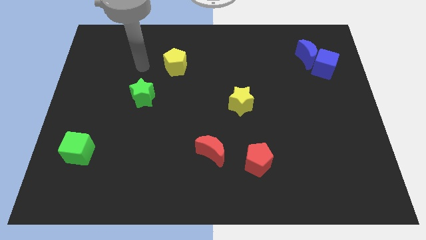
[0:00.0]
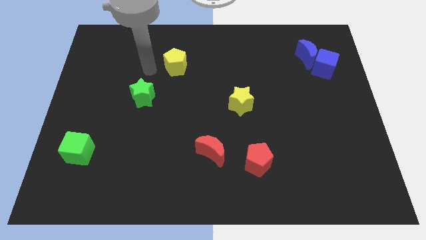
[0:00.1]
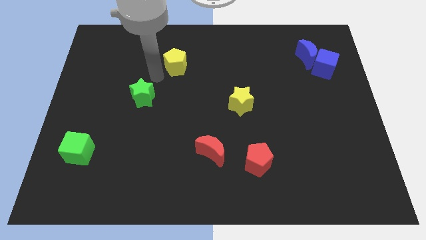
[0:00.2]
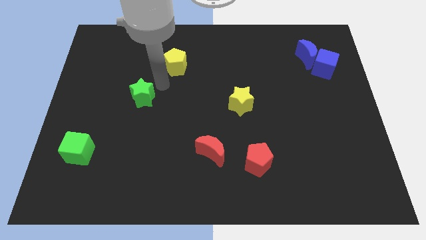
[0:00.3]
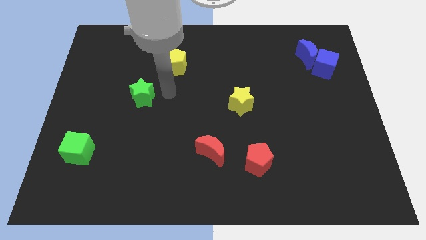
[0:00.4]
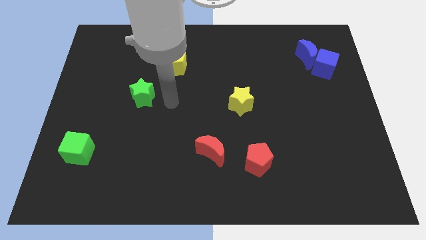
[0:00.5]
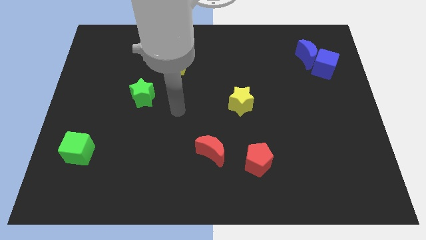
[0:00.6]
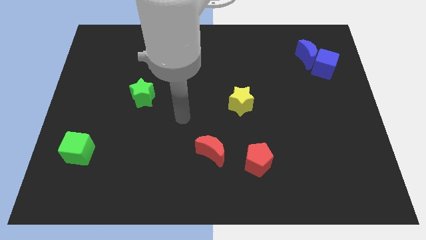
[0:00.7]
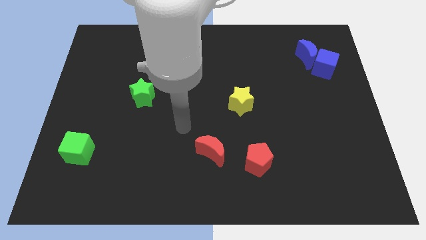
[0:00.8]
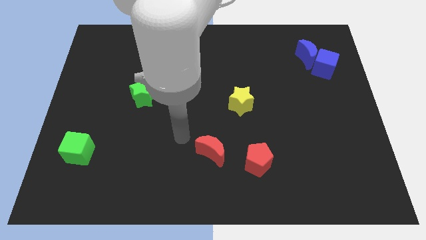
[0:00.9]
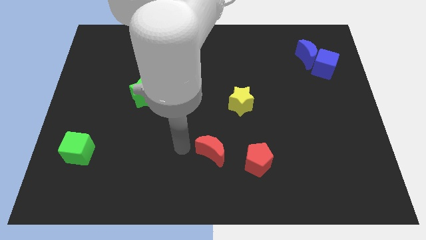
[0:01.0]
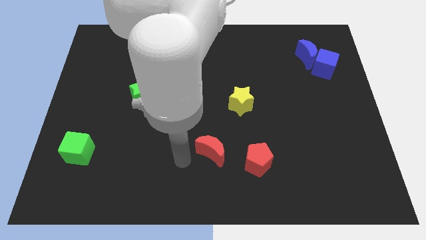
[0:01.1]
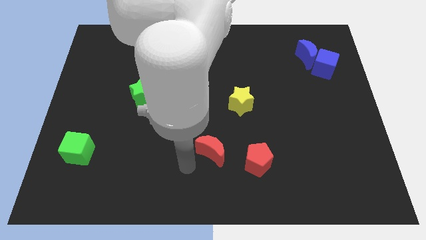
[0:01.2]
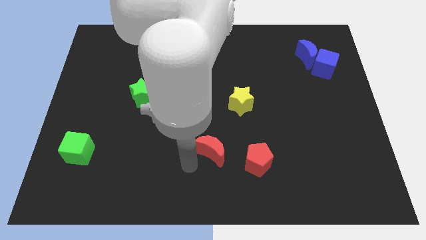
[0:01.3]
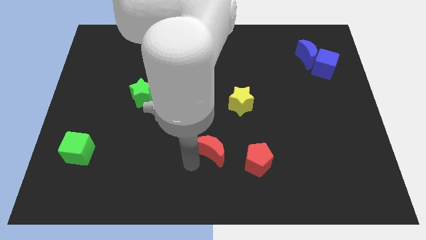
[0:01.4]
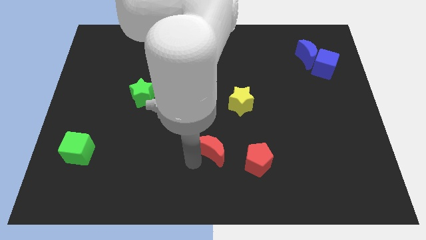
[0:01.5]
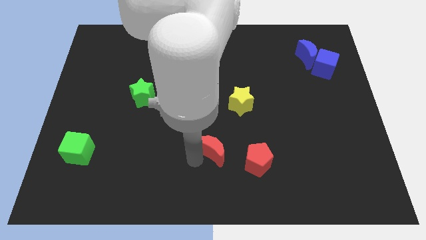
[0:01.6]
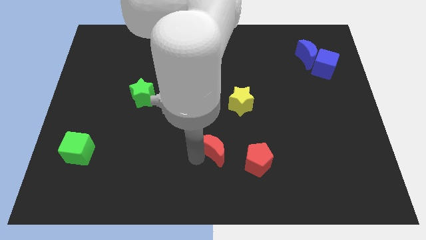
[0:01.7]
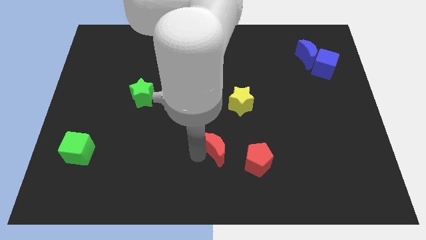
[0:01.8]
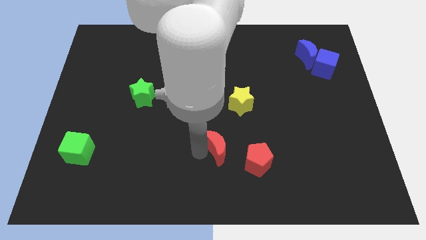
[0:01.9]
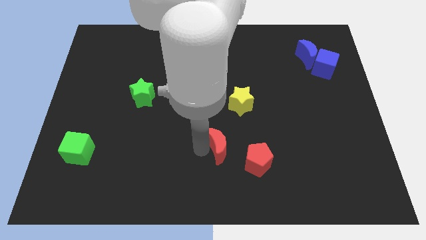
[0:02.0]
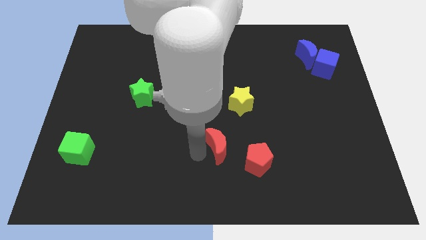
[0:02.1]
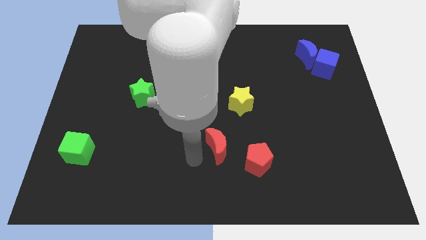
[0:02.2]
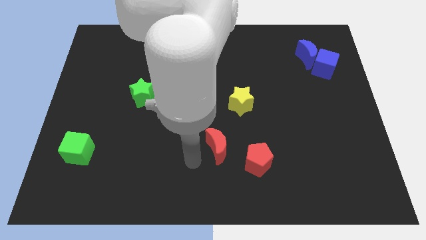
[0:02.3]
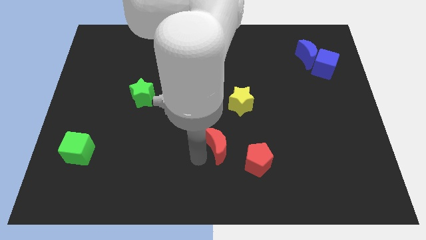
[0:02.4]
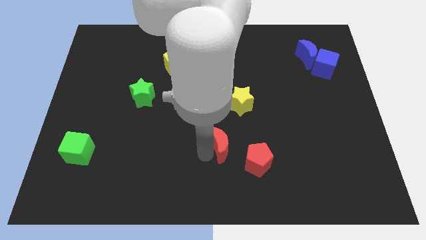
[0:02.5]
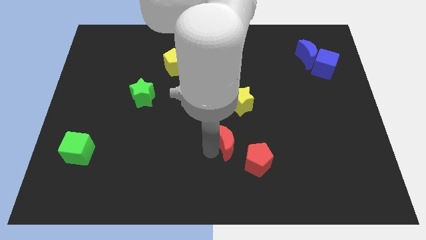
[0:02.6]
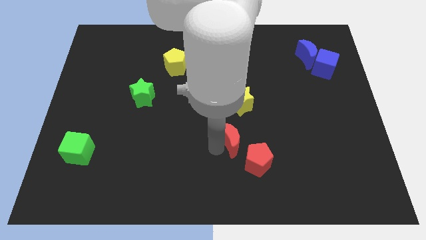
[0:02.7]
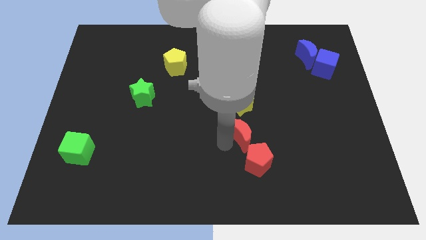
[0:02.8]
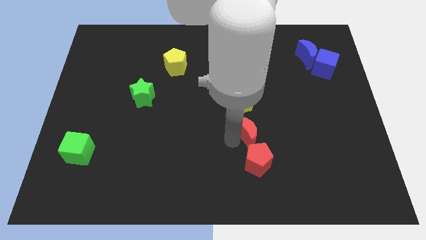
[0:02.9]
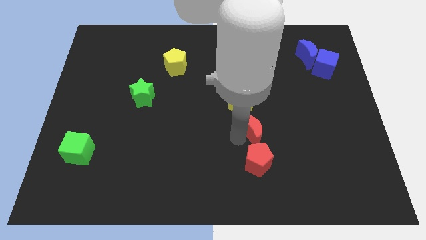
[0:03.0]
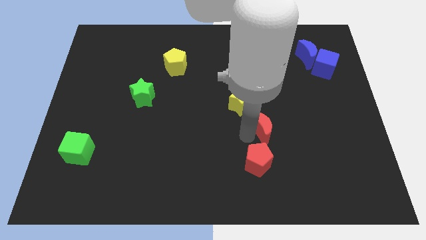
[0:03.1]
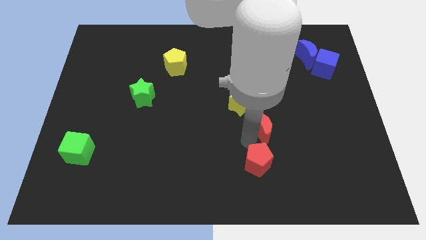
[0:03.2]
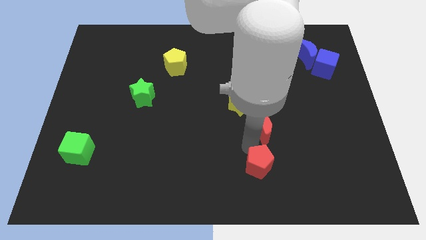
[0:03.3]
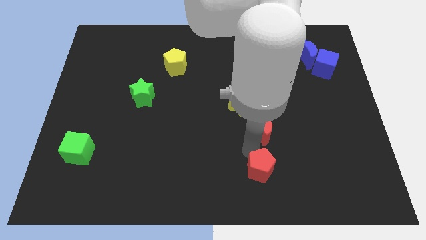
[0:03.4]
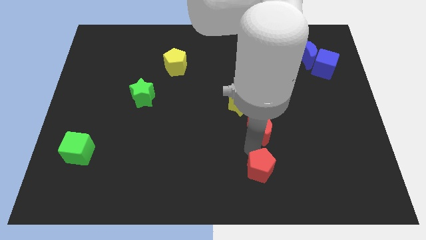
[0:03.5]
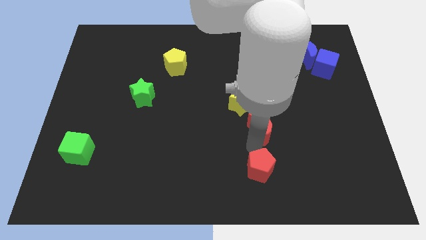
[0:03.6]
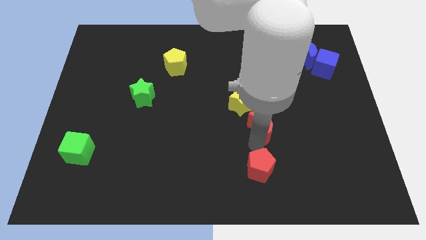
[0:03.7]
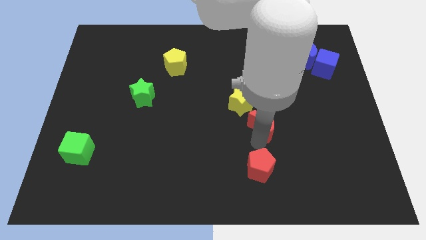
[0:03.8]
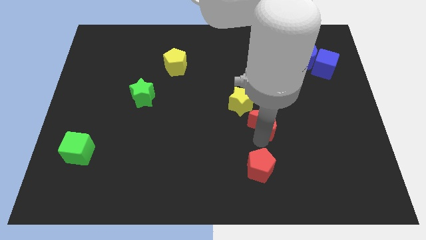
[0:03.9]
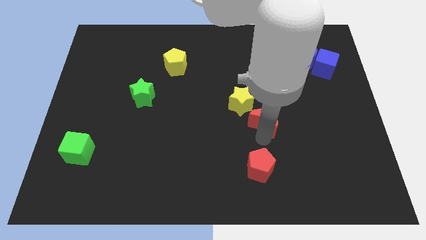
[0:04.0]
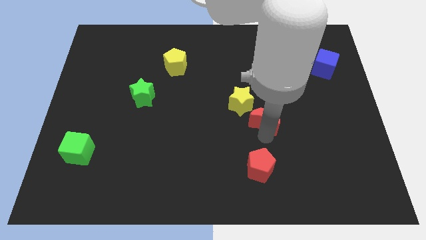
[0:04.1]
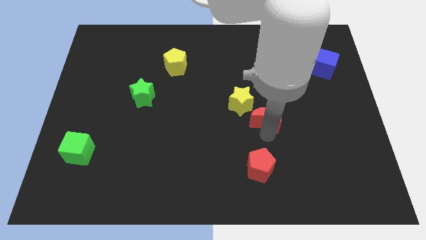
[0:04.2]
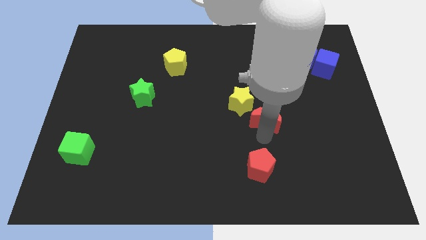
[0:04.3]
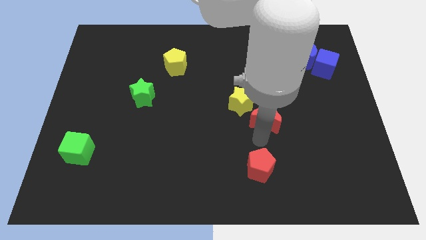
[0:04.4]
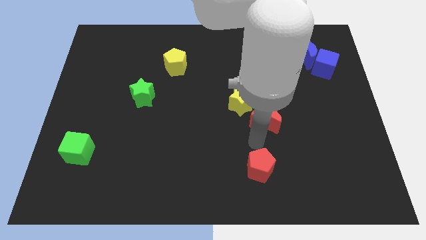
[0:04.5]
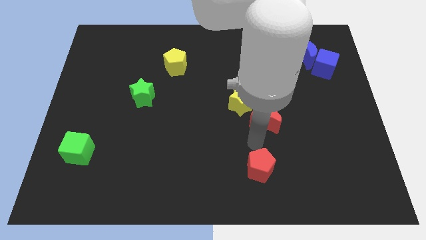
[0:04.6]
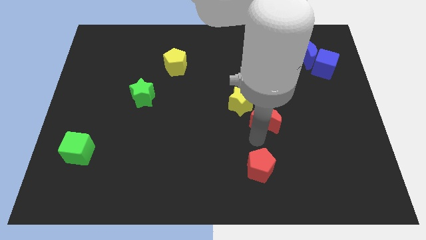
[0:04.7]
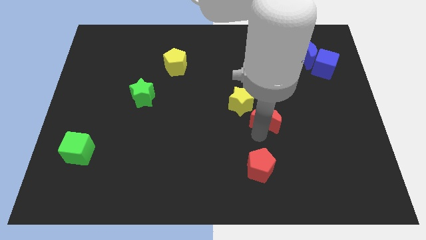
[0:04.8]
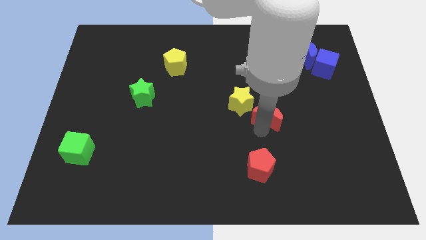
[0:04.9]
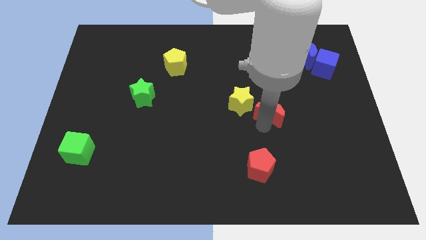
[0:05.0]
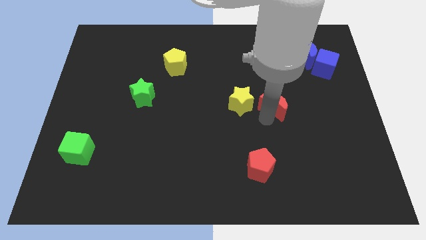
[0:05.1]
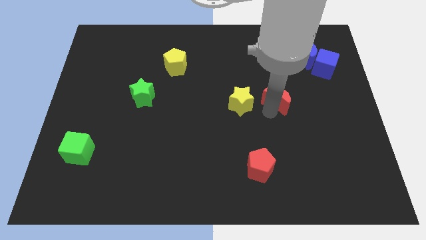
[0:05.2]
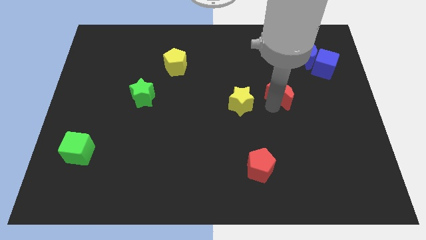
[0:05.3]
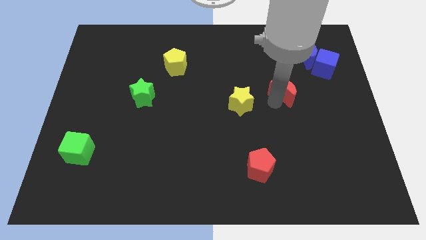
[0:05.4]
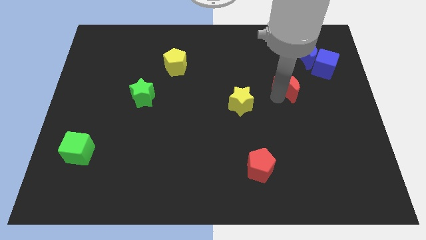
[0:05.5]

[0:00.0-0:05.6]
push the red moon to the bottom left of the blue cube

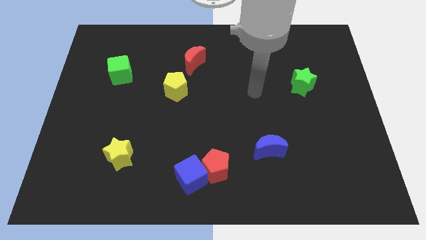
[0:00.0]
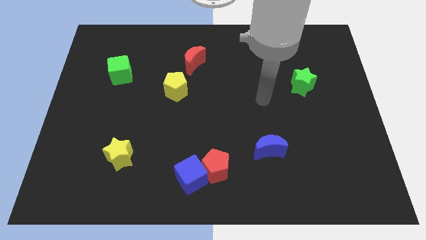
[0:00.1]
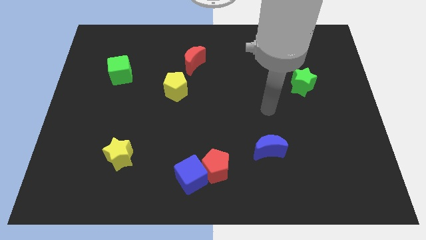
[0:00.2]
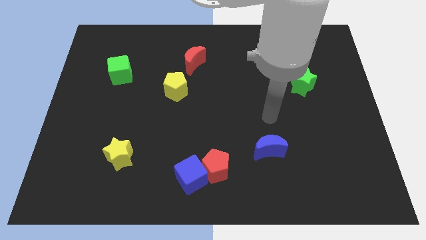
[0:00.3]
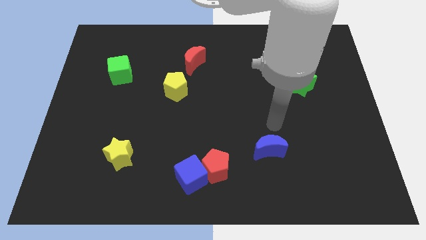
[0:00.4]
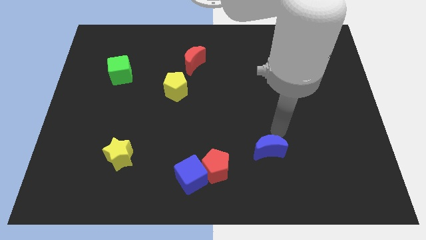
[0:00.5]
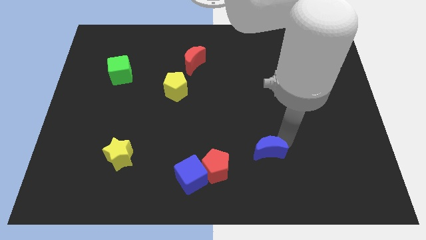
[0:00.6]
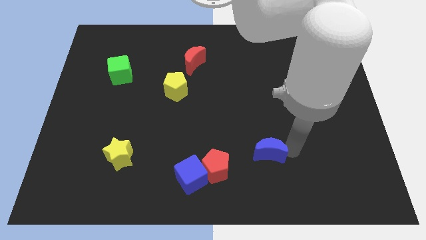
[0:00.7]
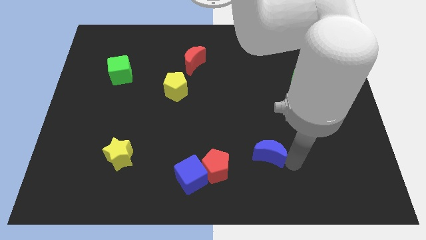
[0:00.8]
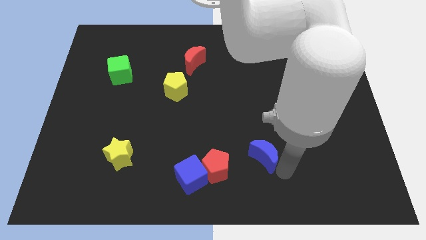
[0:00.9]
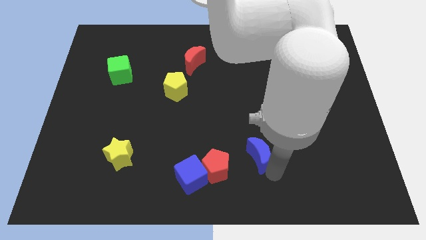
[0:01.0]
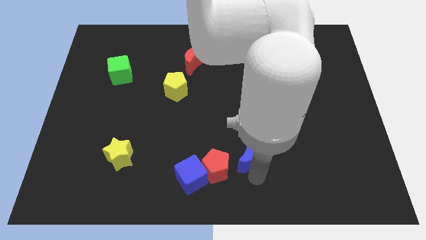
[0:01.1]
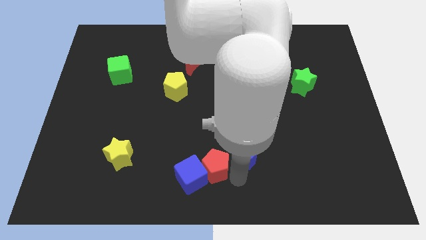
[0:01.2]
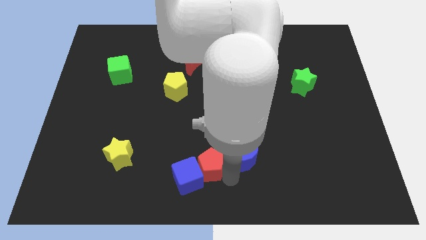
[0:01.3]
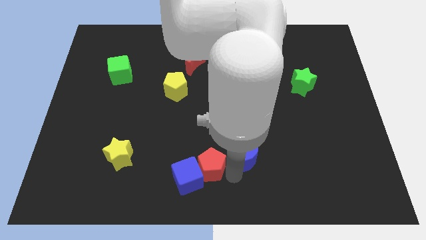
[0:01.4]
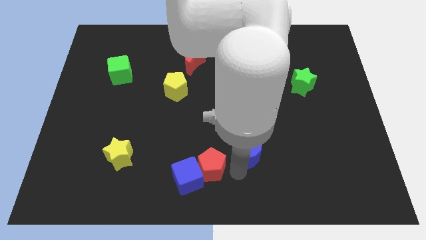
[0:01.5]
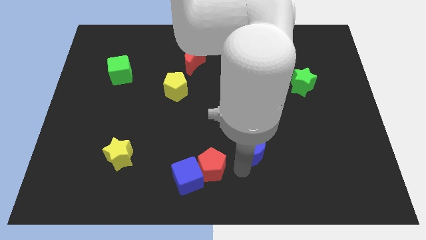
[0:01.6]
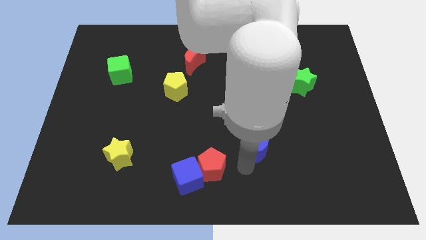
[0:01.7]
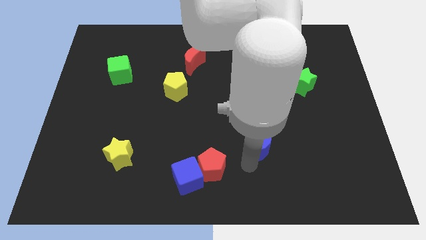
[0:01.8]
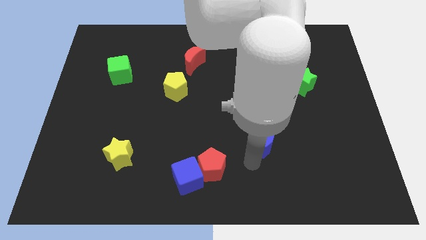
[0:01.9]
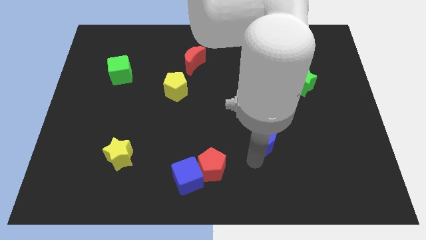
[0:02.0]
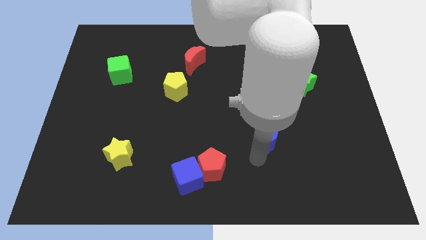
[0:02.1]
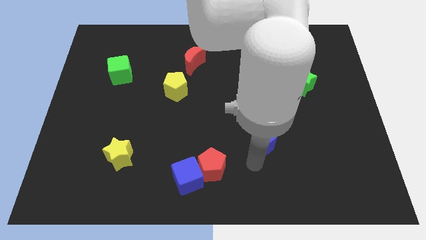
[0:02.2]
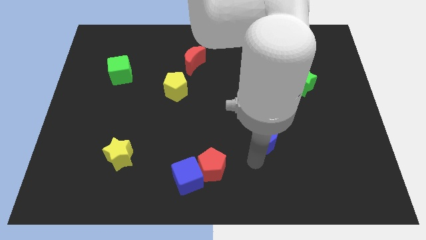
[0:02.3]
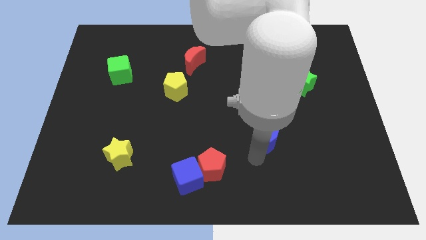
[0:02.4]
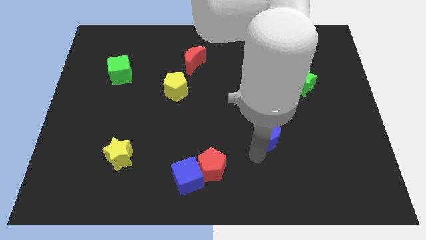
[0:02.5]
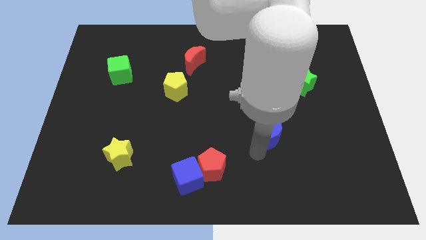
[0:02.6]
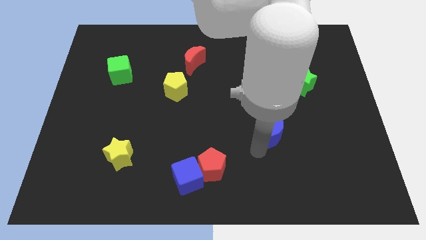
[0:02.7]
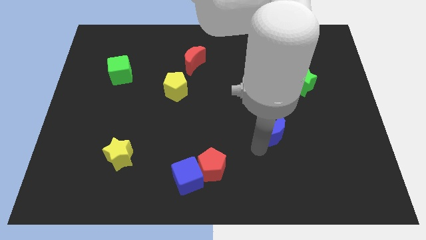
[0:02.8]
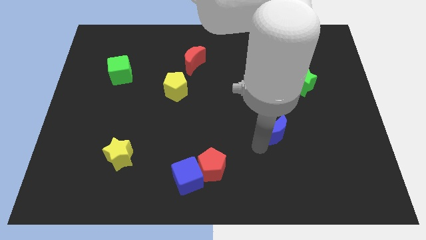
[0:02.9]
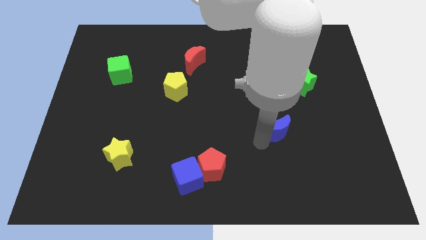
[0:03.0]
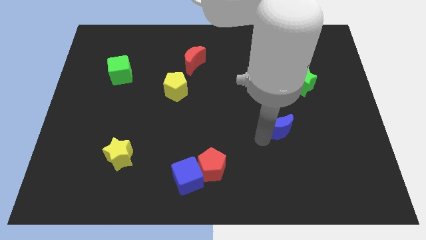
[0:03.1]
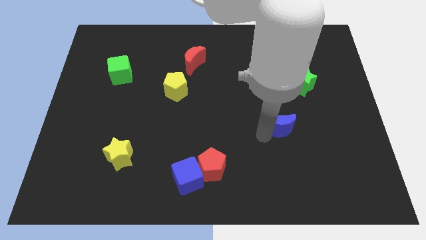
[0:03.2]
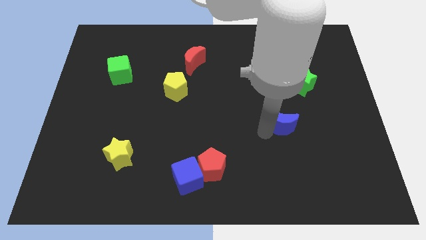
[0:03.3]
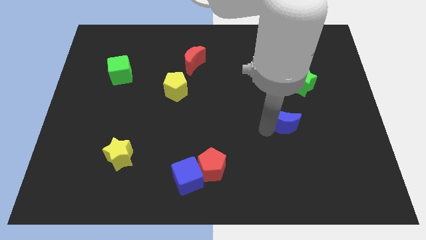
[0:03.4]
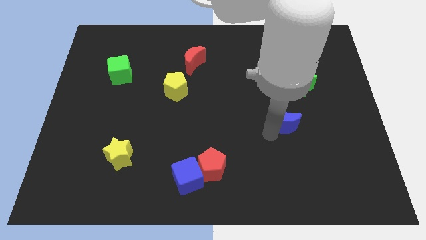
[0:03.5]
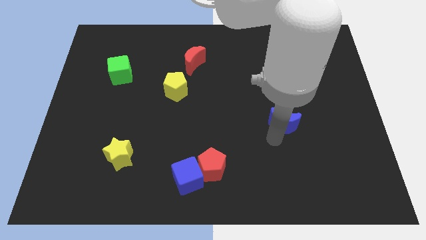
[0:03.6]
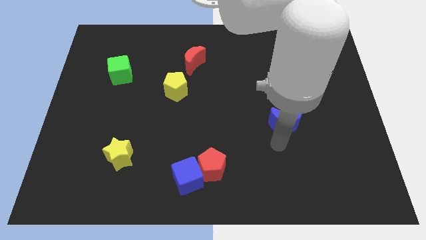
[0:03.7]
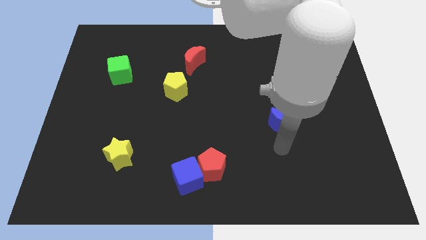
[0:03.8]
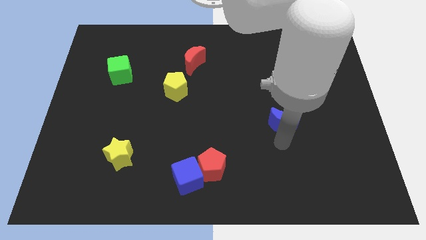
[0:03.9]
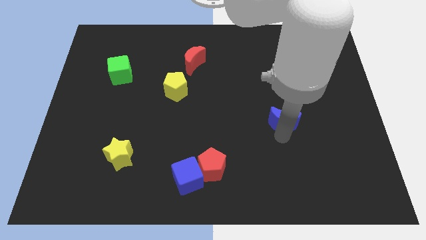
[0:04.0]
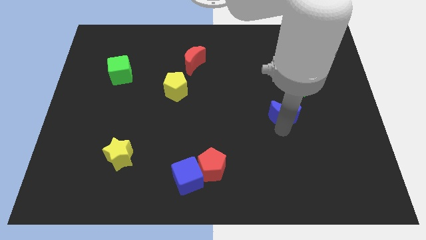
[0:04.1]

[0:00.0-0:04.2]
slide the blue moon to the bottom left of the green star
